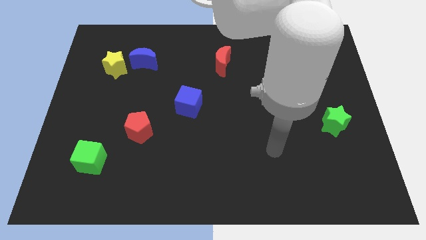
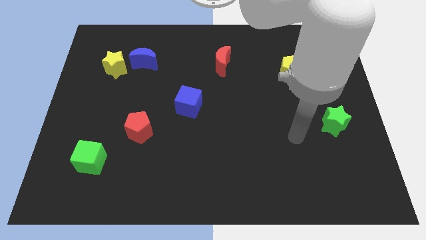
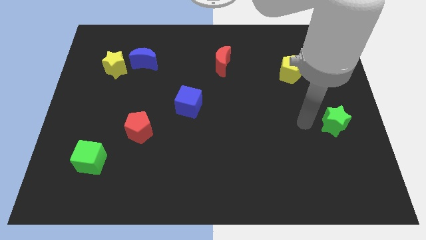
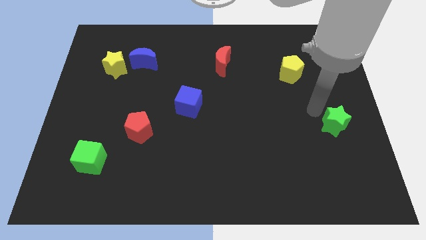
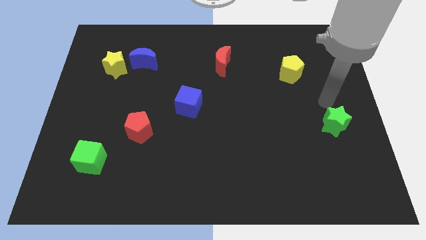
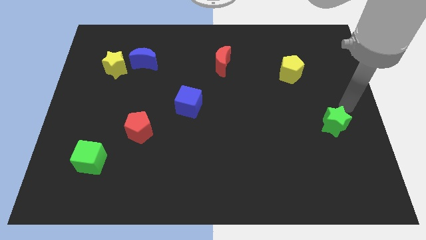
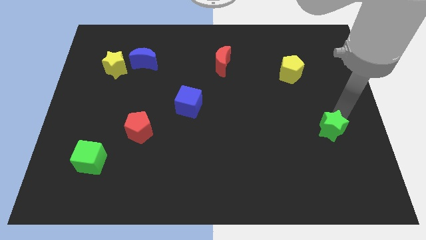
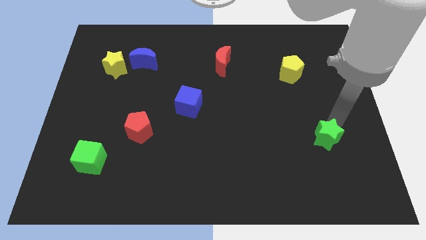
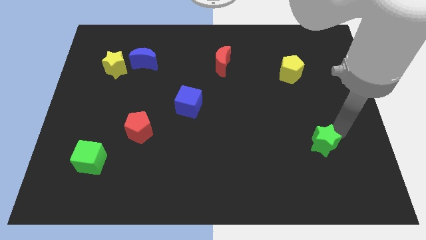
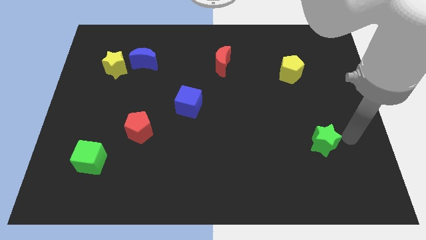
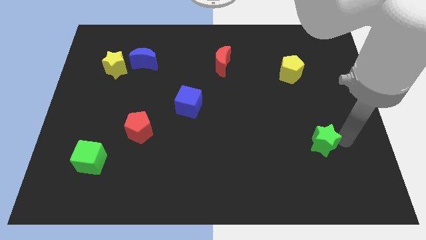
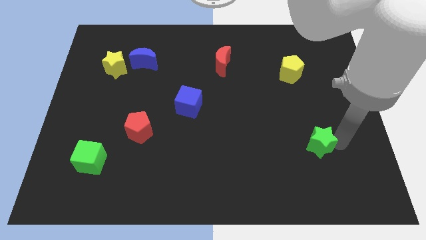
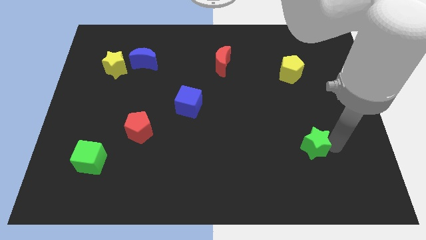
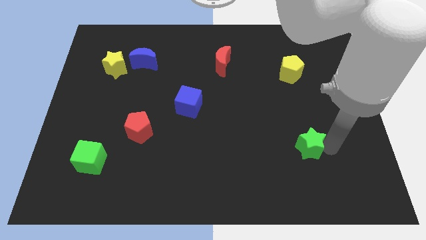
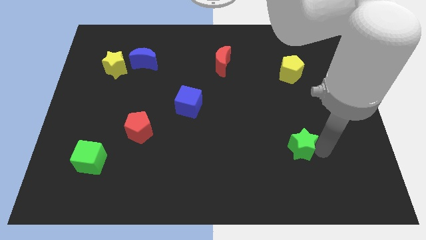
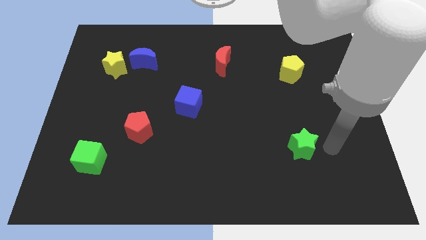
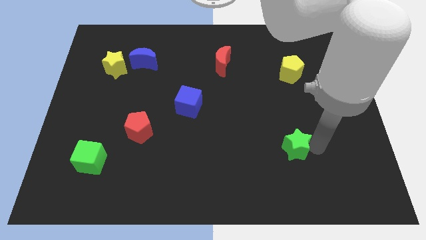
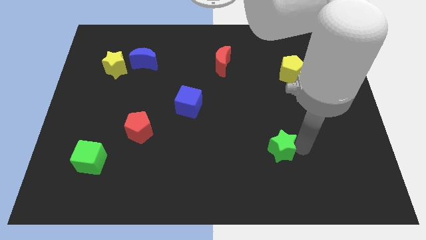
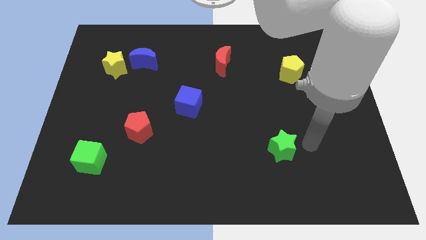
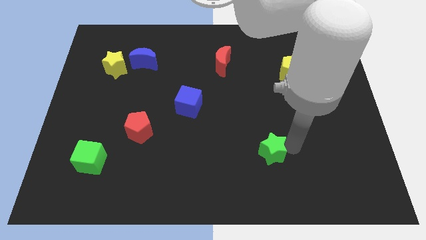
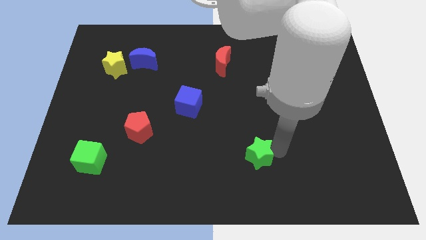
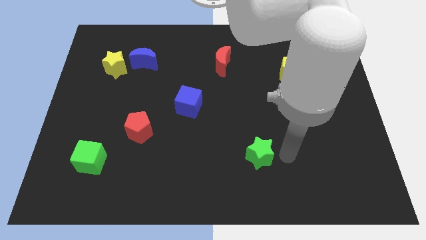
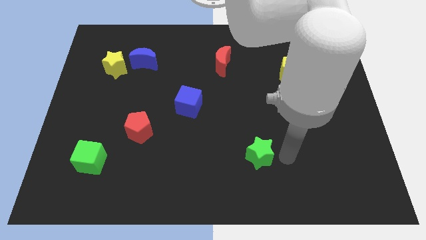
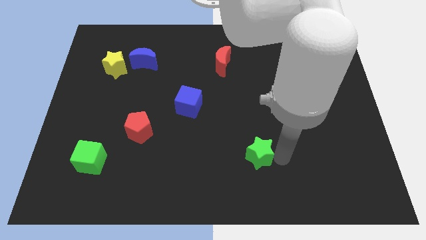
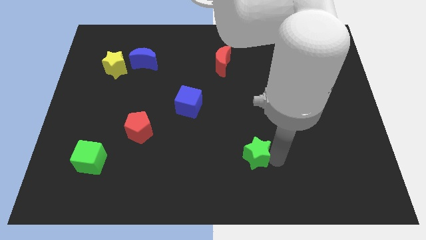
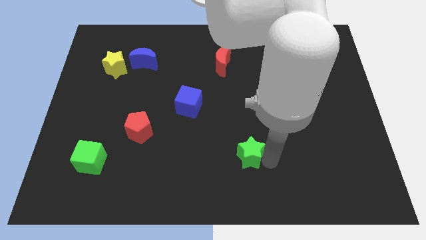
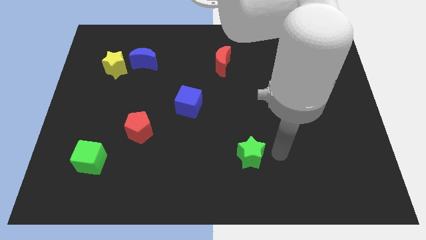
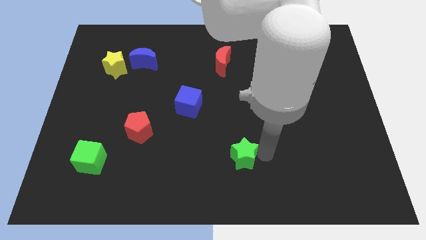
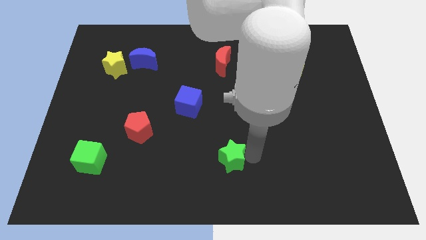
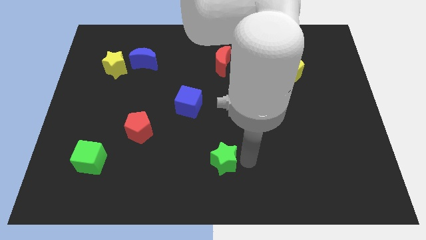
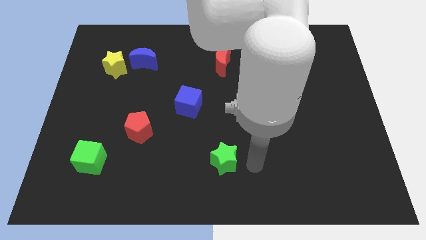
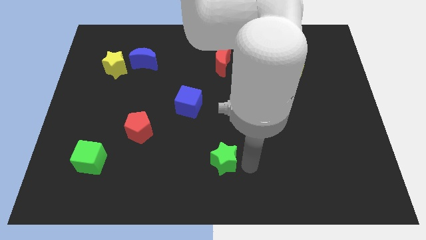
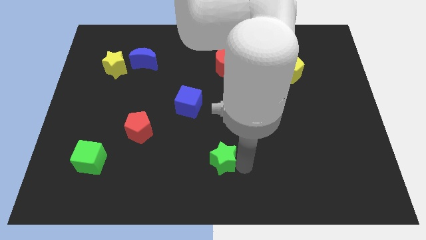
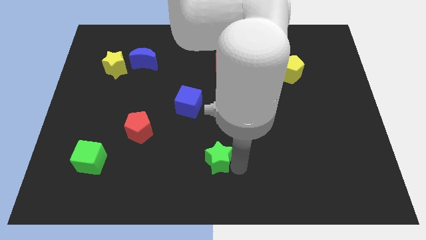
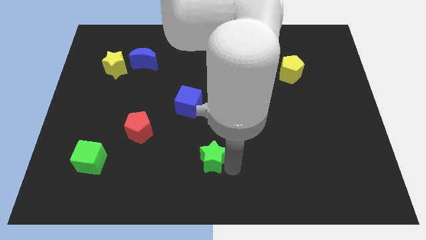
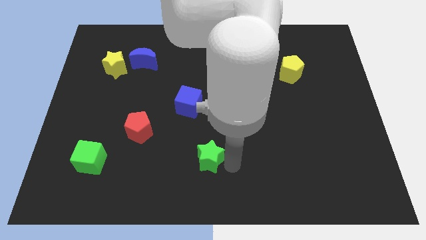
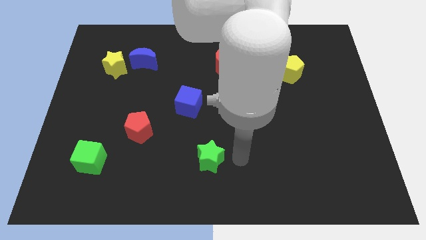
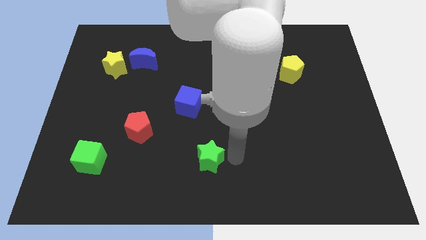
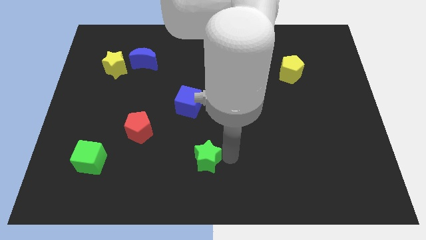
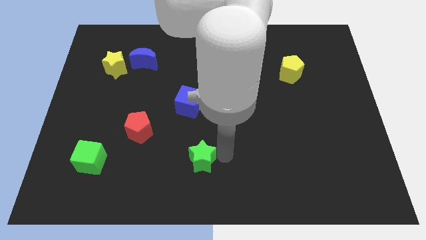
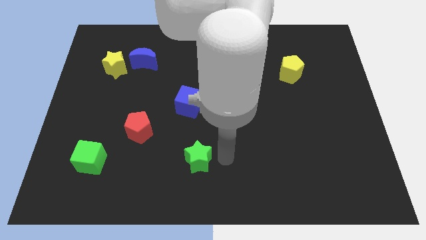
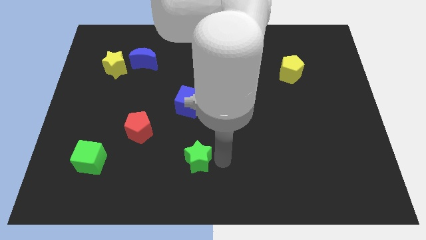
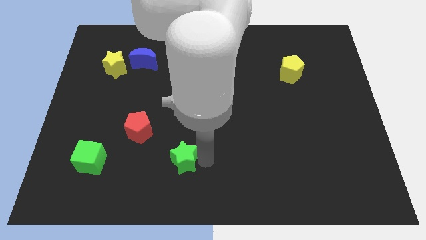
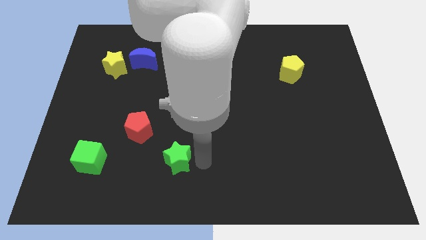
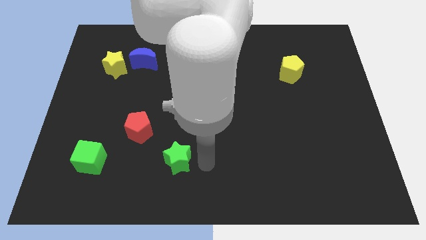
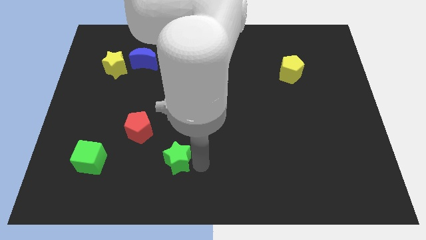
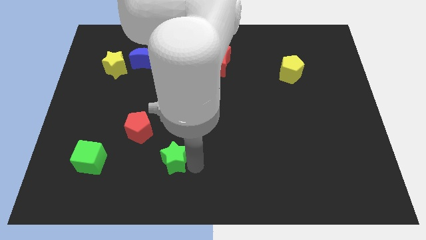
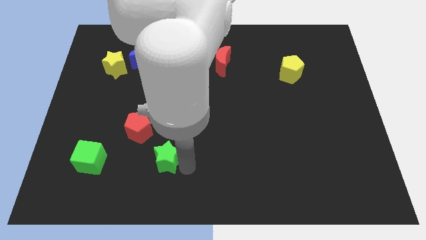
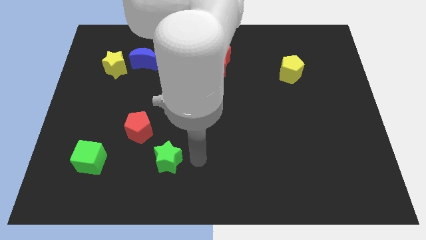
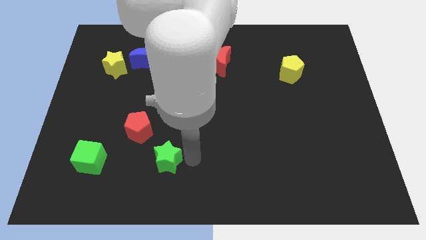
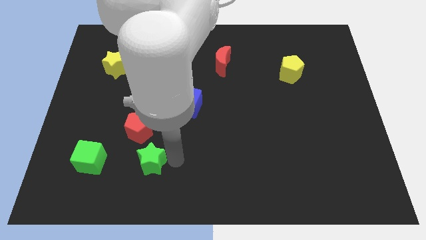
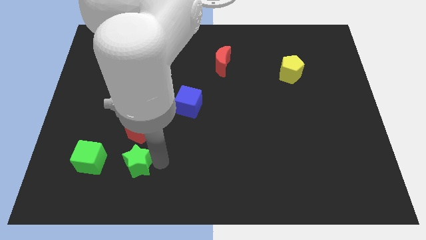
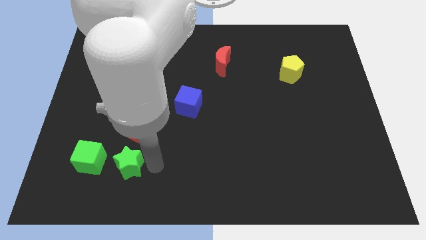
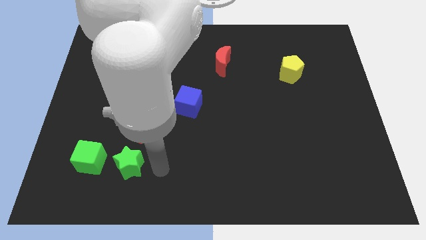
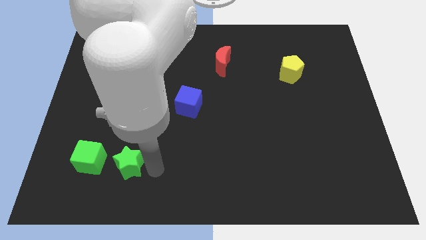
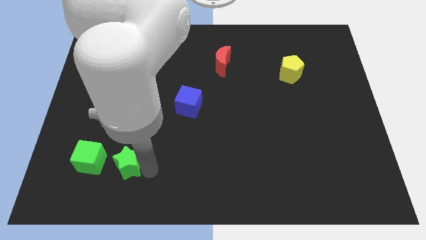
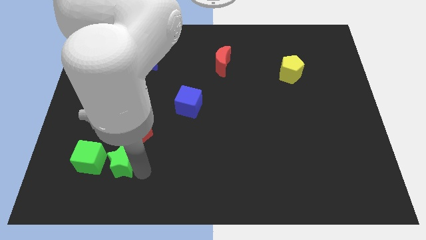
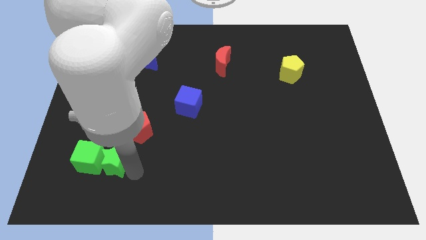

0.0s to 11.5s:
move the green star next to the green cube

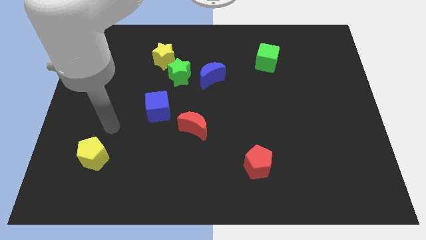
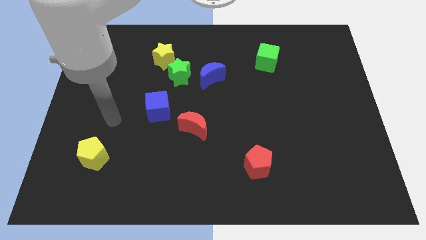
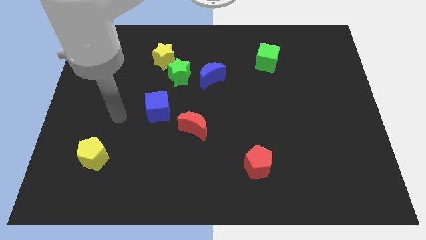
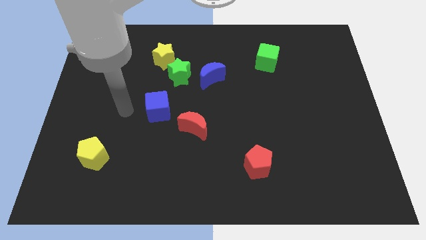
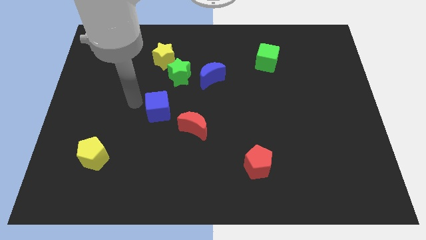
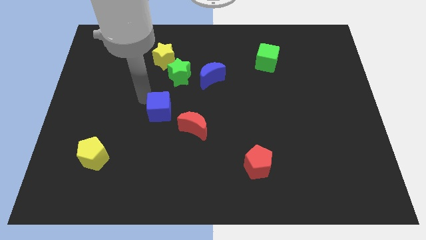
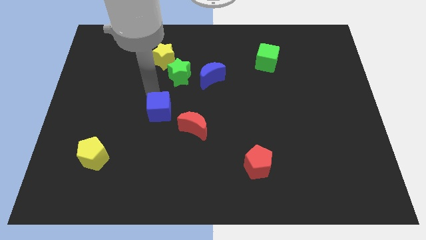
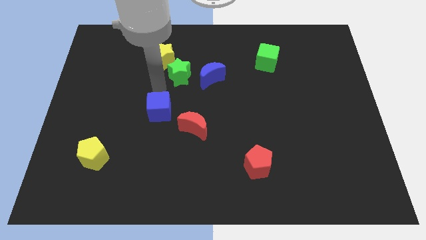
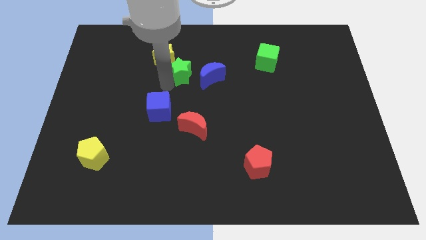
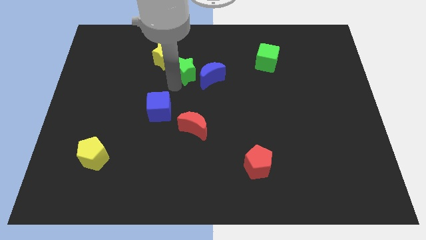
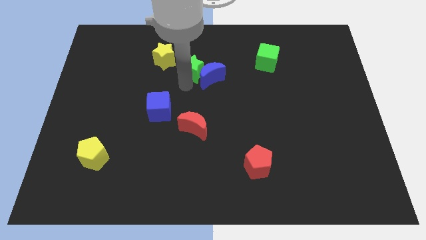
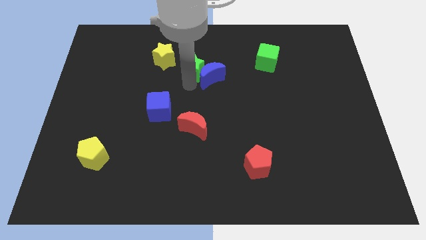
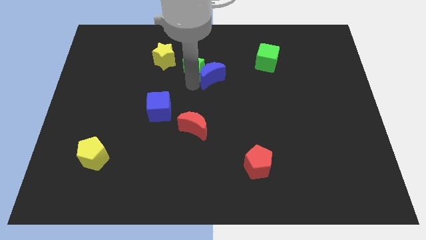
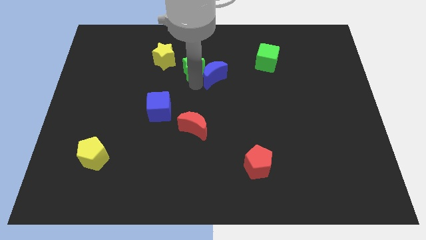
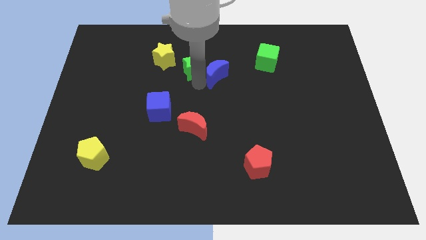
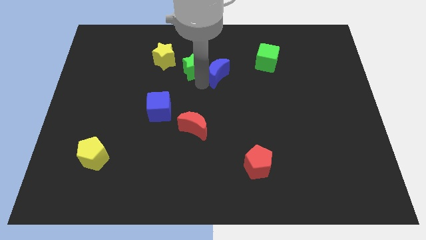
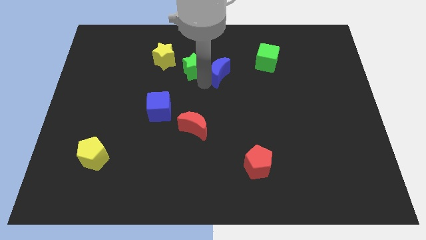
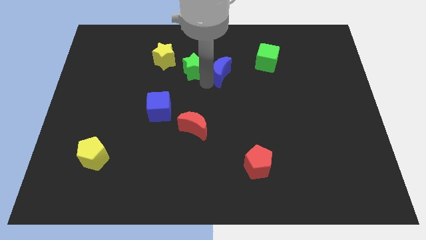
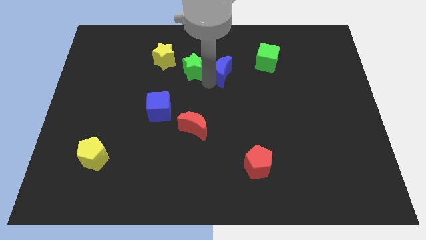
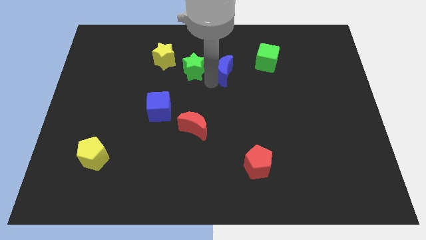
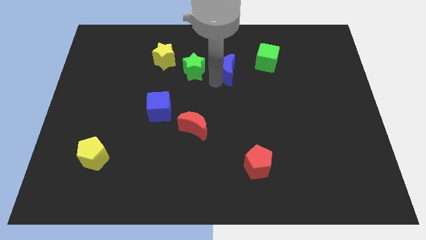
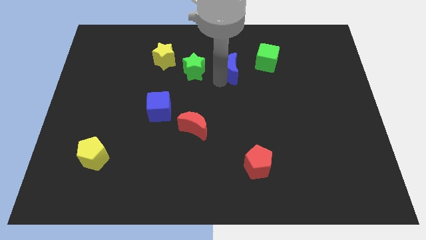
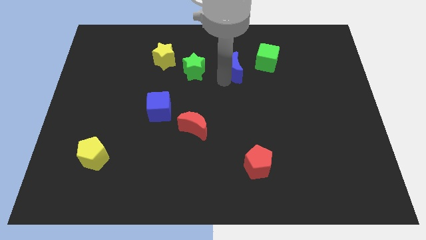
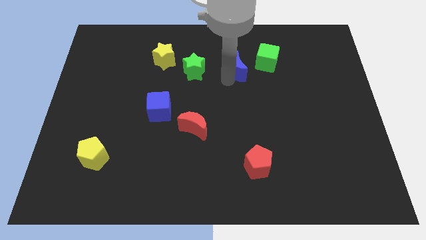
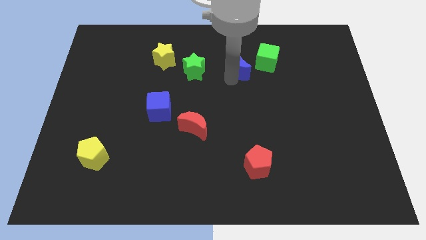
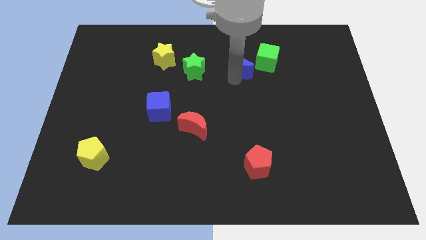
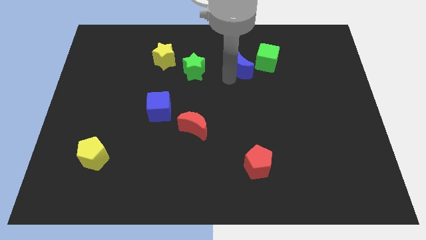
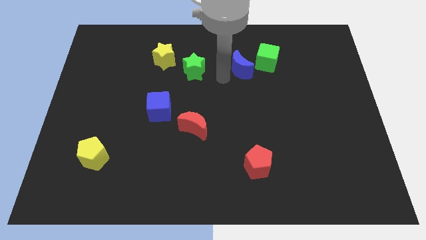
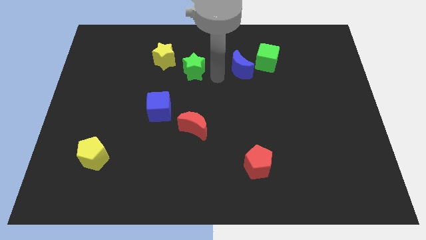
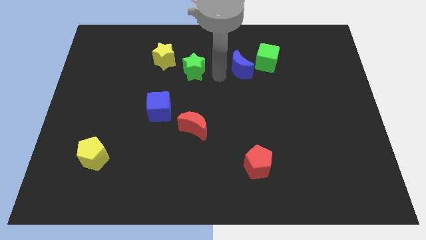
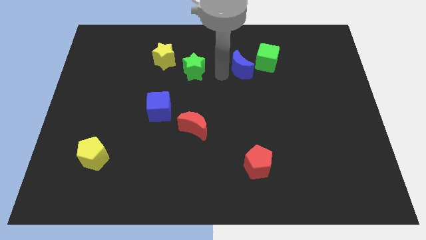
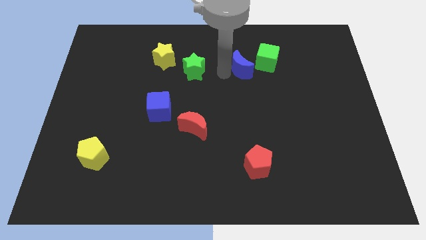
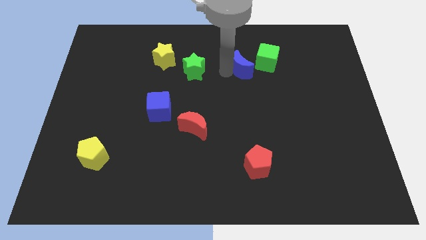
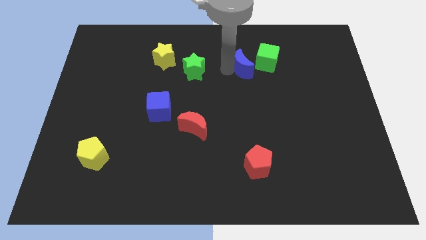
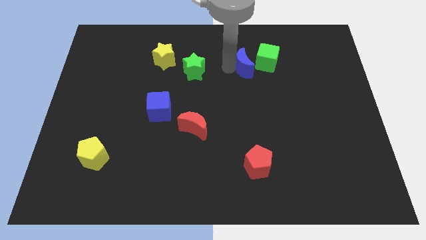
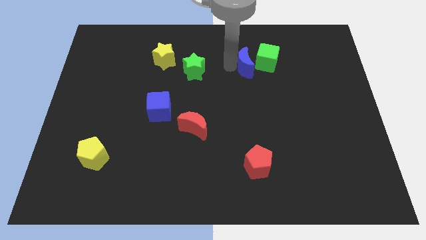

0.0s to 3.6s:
move the blue moon close to the green cube
